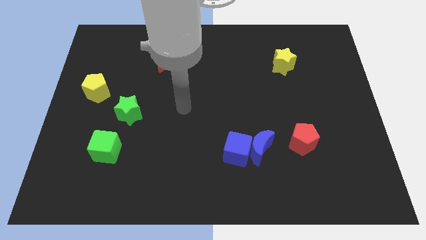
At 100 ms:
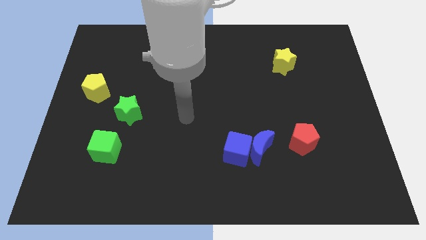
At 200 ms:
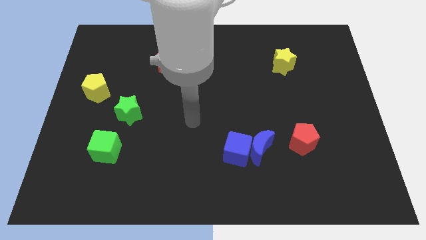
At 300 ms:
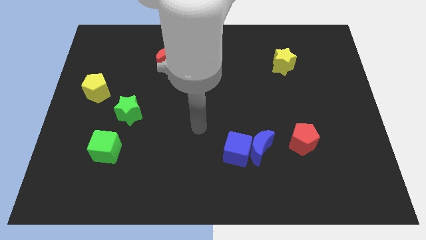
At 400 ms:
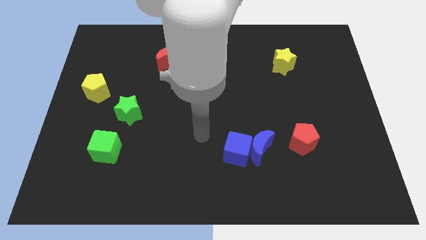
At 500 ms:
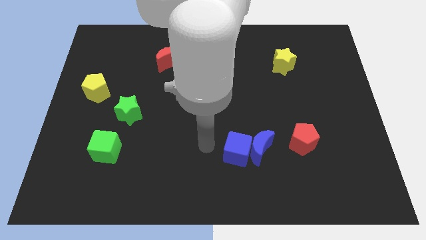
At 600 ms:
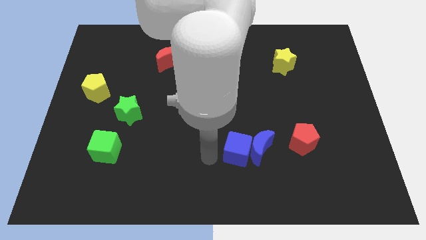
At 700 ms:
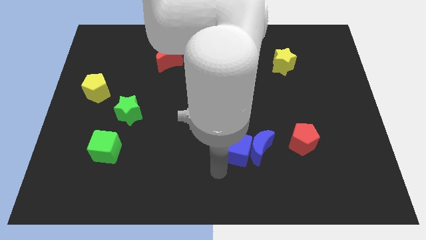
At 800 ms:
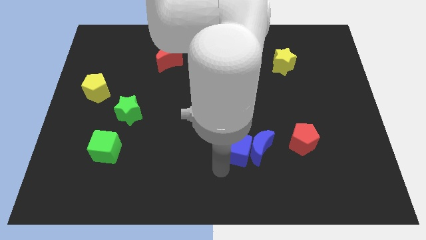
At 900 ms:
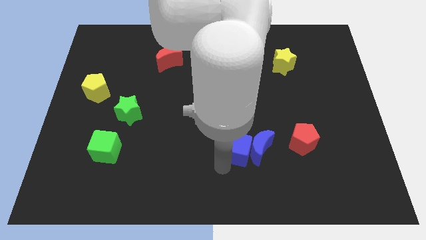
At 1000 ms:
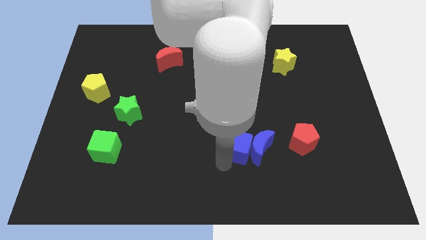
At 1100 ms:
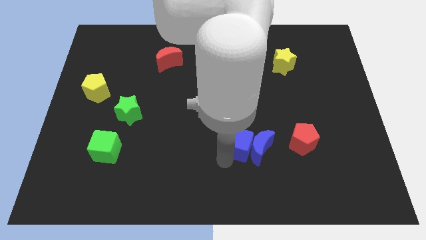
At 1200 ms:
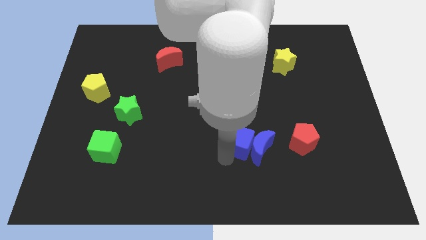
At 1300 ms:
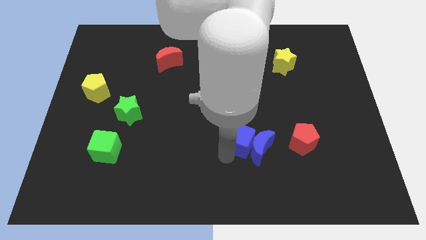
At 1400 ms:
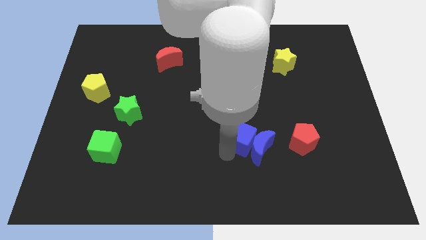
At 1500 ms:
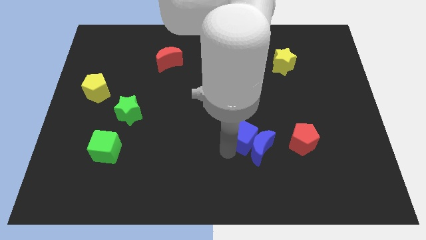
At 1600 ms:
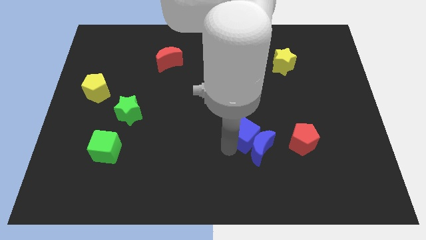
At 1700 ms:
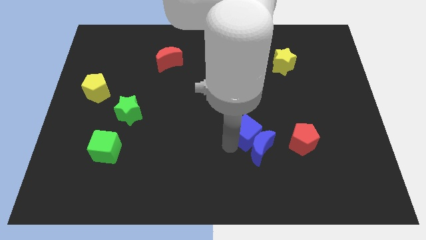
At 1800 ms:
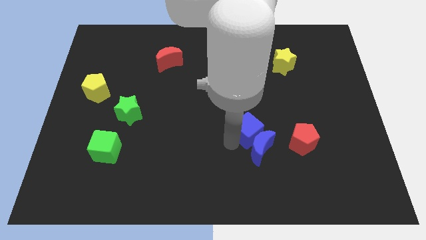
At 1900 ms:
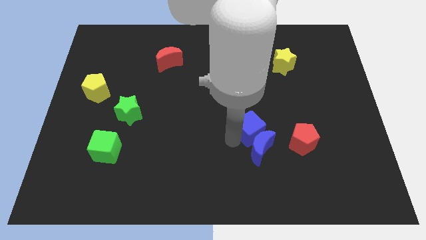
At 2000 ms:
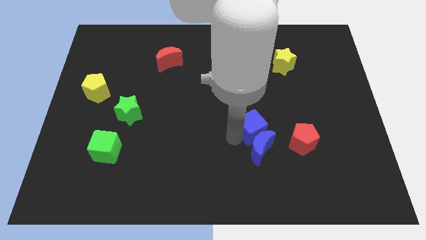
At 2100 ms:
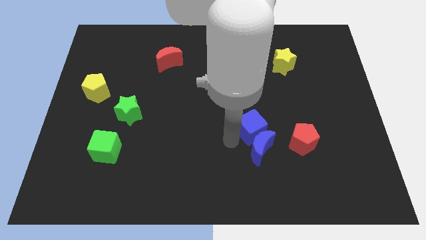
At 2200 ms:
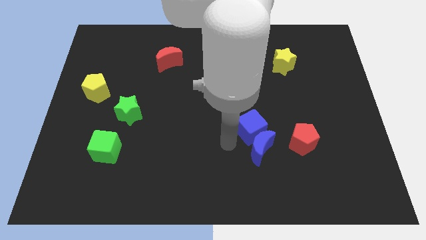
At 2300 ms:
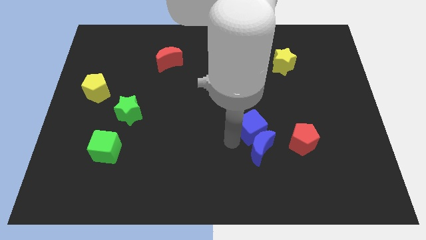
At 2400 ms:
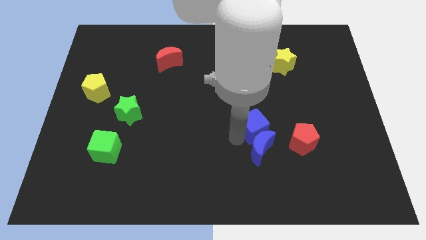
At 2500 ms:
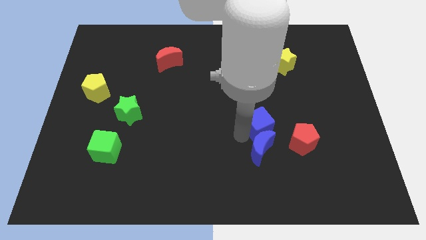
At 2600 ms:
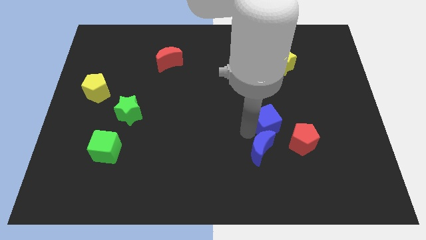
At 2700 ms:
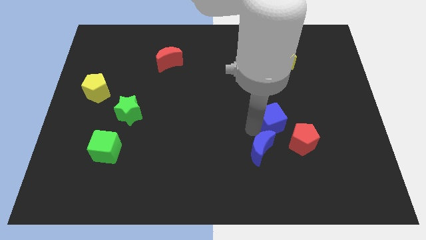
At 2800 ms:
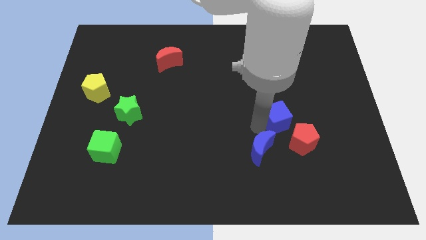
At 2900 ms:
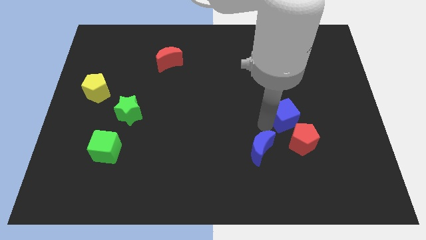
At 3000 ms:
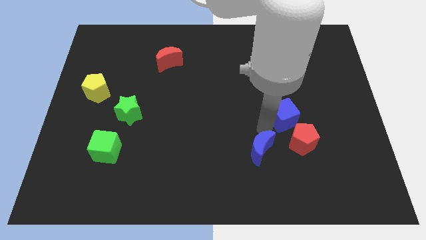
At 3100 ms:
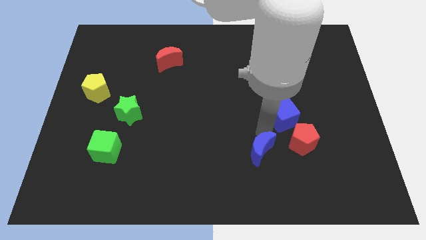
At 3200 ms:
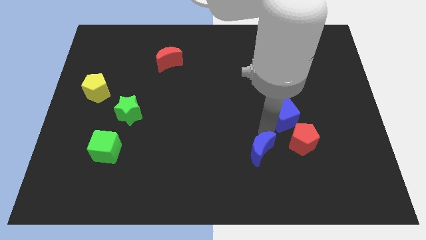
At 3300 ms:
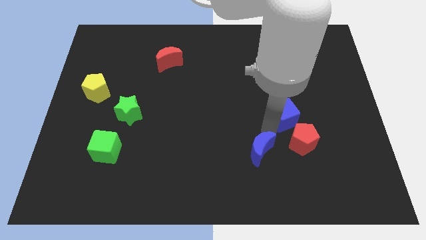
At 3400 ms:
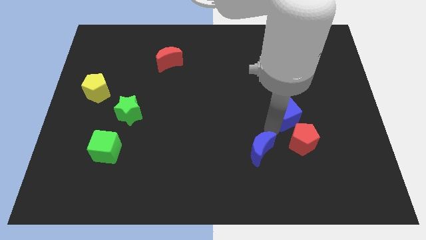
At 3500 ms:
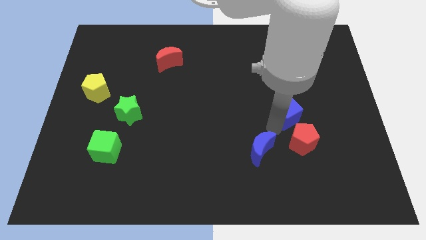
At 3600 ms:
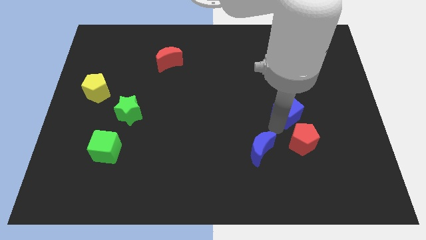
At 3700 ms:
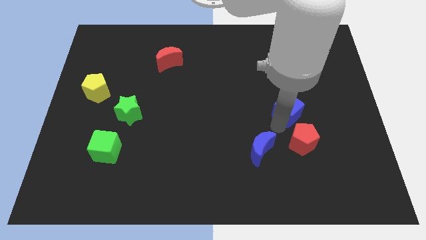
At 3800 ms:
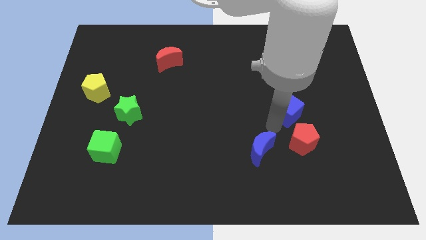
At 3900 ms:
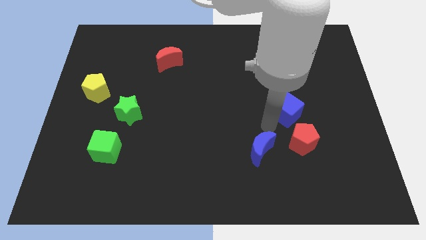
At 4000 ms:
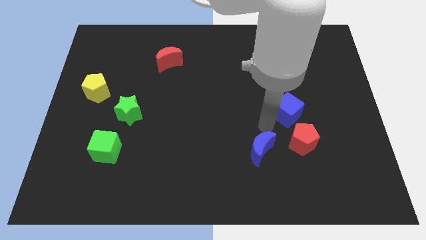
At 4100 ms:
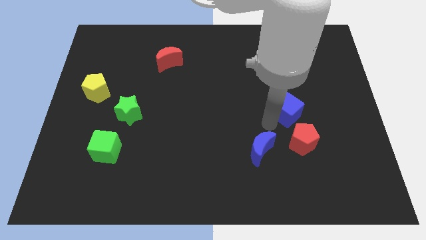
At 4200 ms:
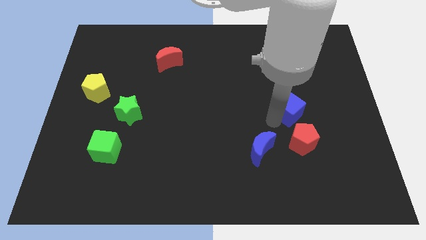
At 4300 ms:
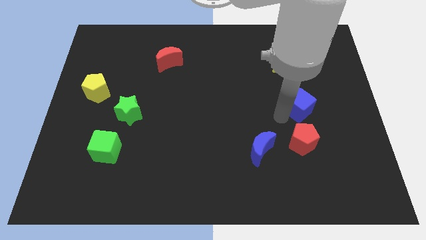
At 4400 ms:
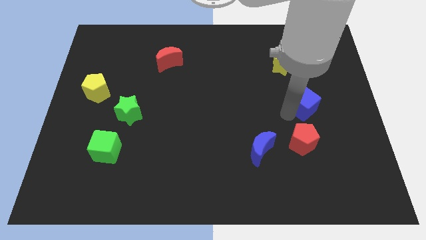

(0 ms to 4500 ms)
move the blue cube upwards and right diagonally

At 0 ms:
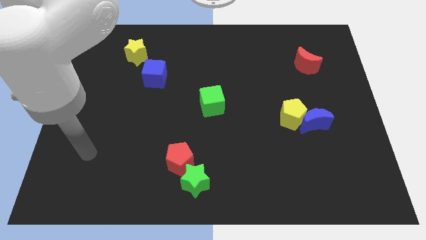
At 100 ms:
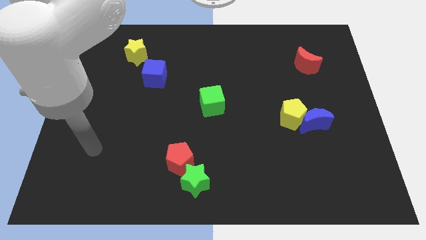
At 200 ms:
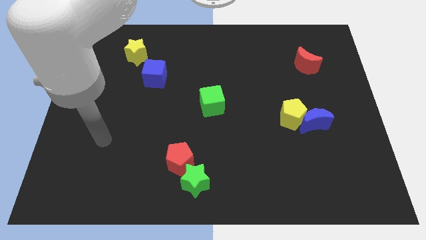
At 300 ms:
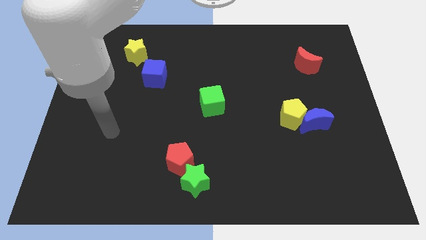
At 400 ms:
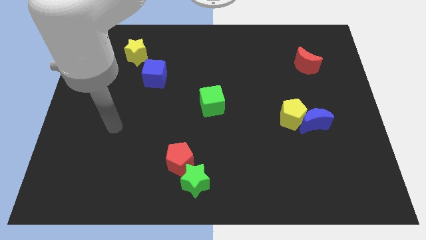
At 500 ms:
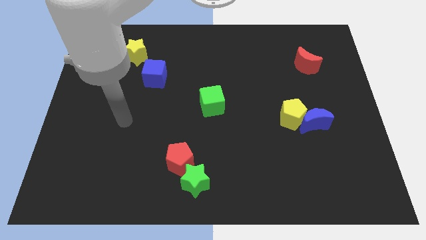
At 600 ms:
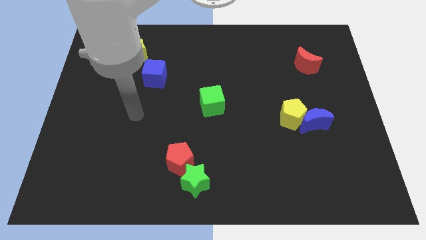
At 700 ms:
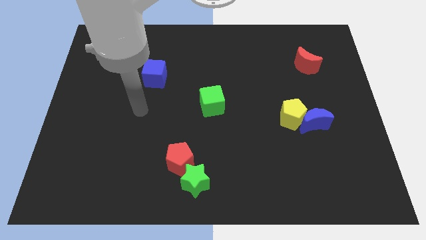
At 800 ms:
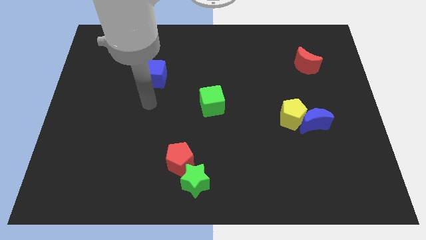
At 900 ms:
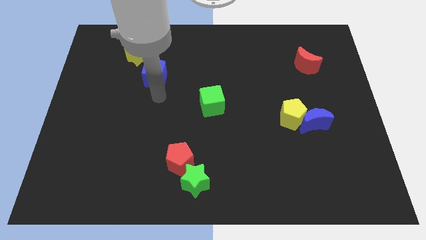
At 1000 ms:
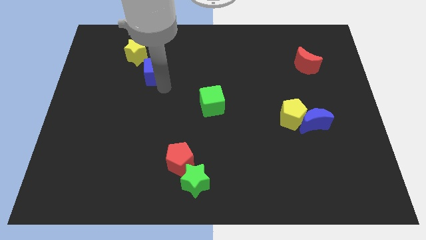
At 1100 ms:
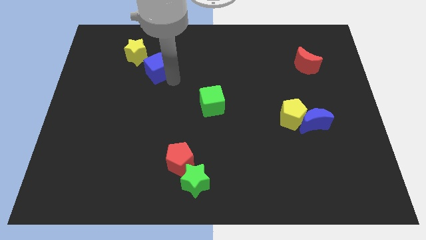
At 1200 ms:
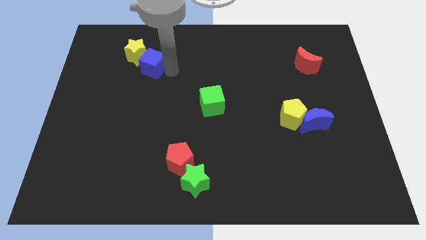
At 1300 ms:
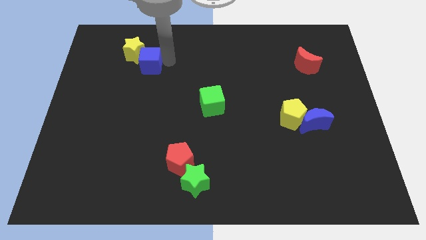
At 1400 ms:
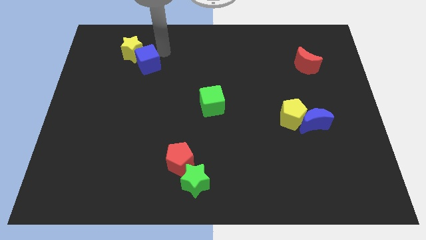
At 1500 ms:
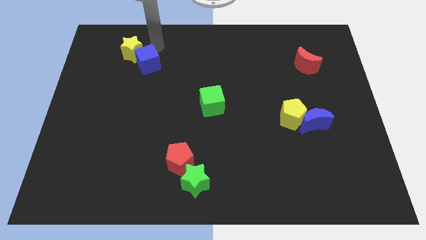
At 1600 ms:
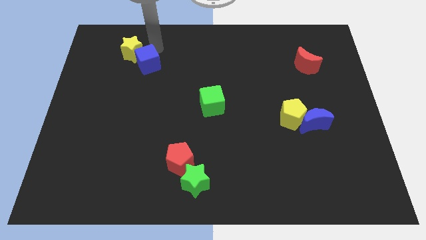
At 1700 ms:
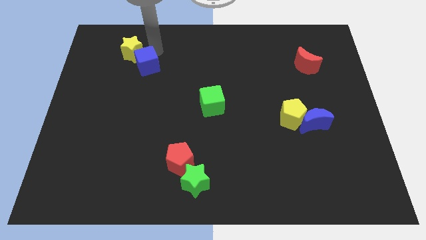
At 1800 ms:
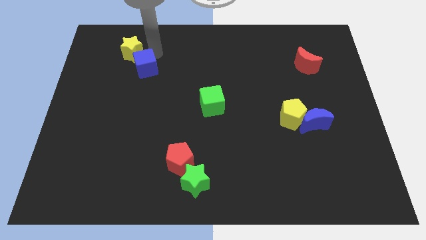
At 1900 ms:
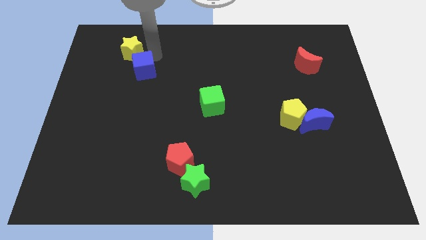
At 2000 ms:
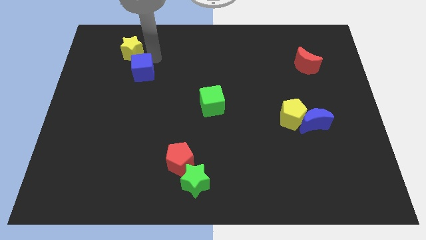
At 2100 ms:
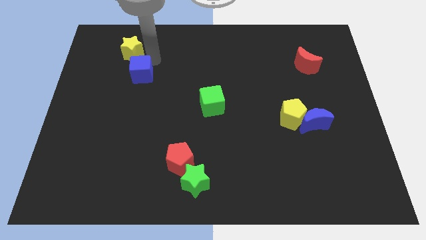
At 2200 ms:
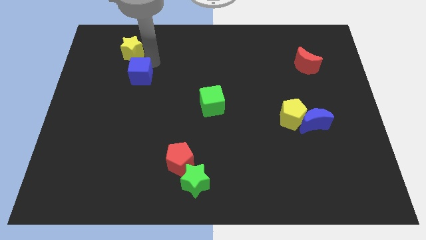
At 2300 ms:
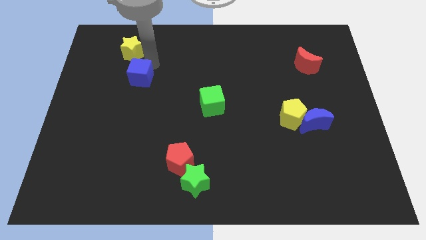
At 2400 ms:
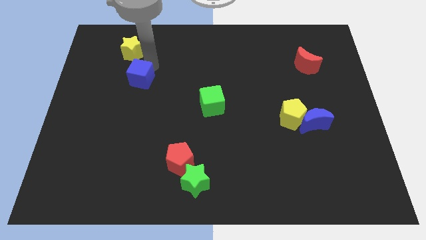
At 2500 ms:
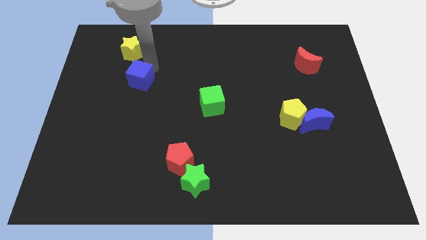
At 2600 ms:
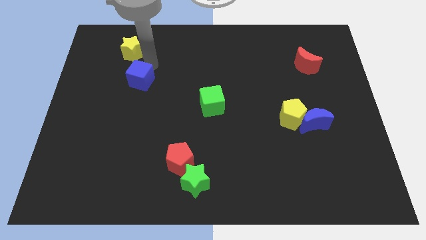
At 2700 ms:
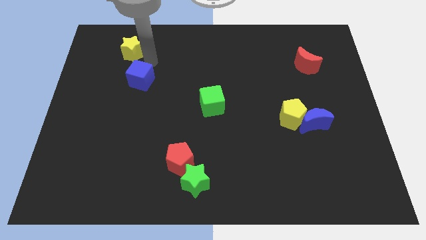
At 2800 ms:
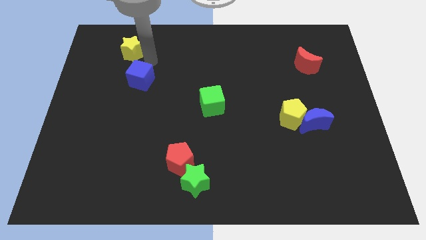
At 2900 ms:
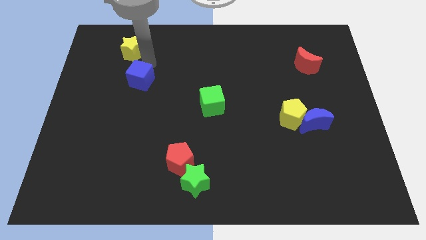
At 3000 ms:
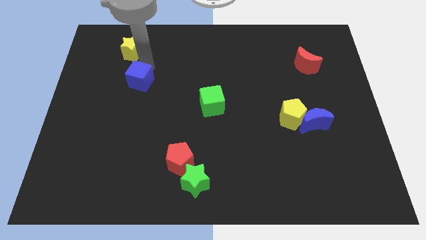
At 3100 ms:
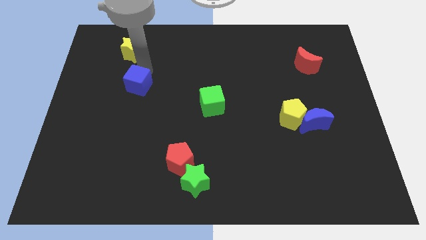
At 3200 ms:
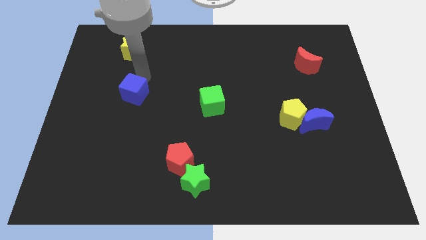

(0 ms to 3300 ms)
move the blue cube down and then to the left a little bit

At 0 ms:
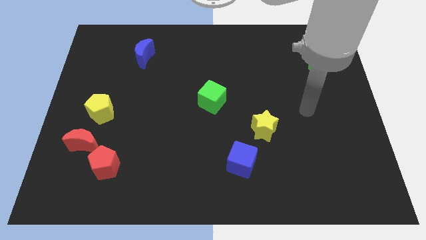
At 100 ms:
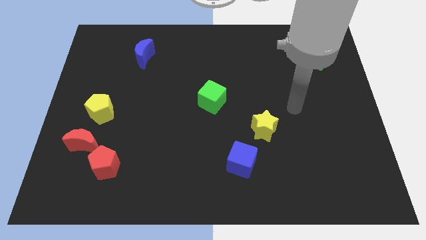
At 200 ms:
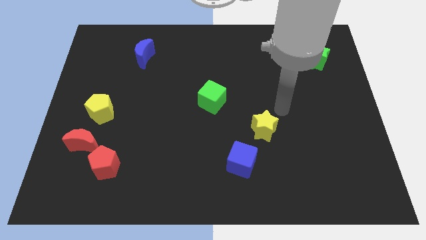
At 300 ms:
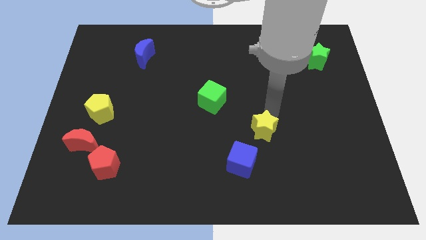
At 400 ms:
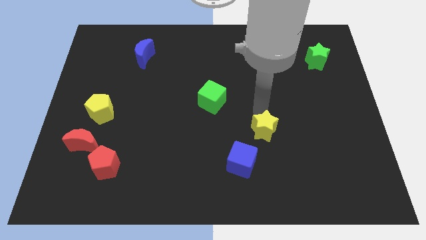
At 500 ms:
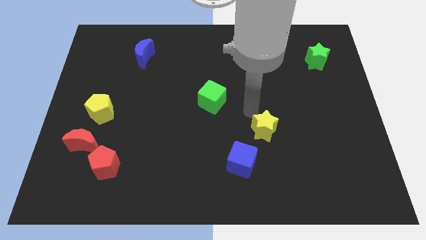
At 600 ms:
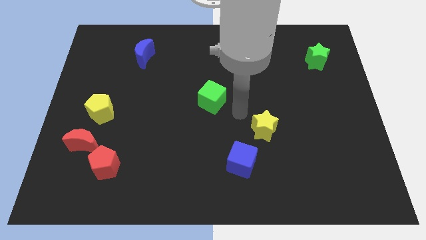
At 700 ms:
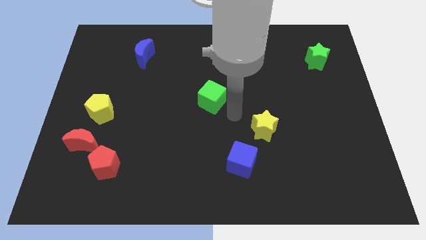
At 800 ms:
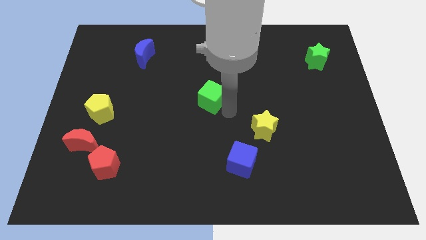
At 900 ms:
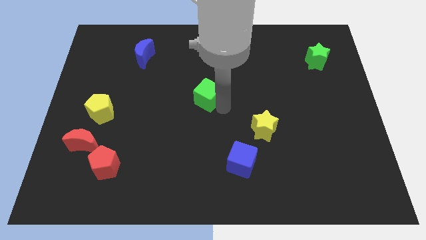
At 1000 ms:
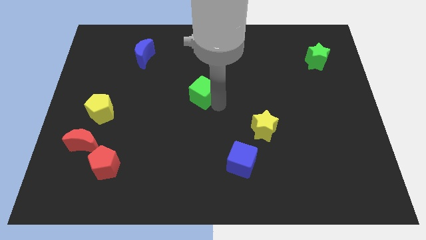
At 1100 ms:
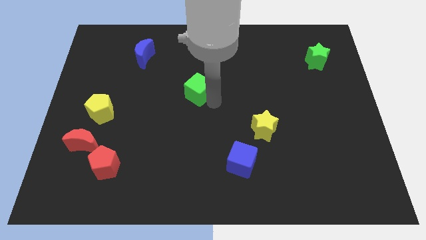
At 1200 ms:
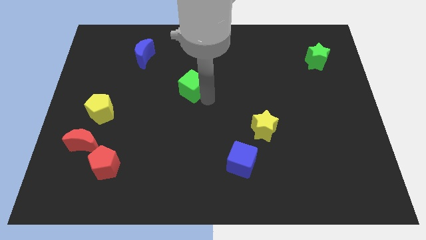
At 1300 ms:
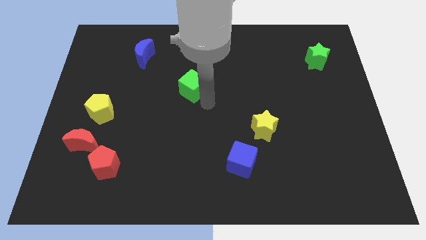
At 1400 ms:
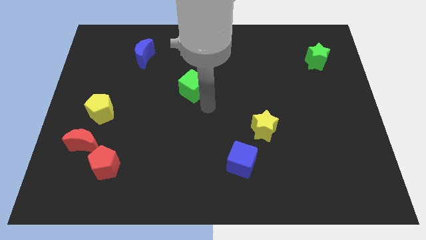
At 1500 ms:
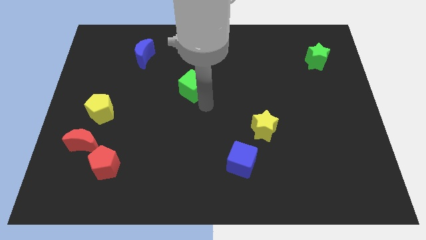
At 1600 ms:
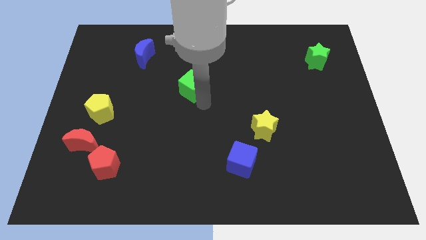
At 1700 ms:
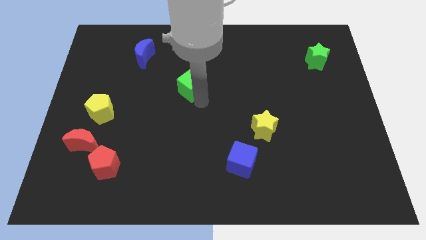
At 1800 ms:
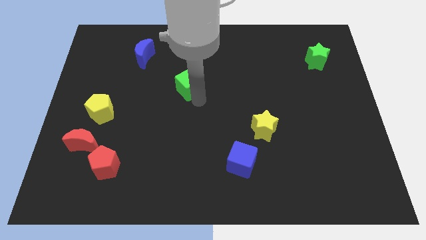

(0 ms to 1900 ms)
slightly move the green cube up and to the left diagonally
